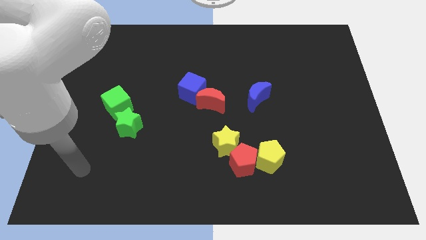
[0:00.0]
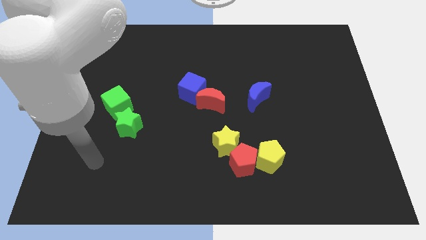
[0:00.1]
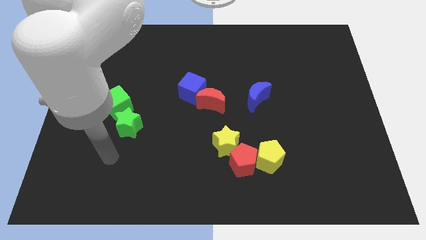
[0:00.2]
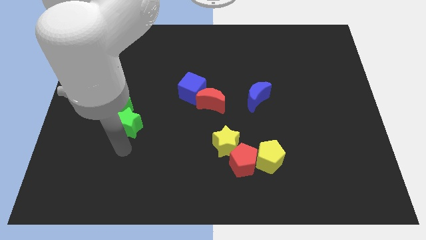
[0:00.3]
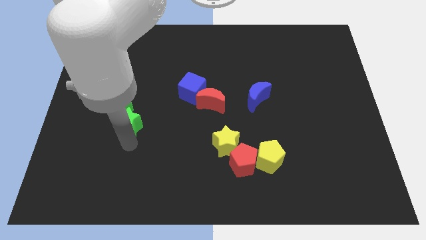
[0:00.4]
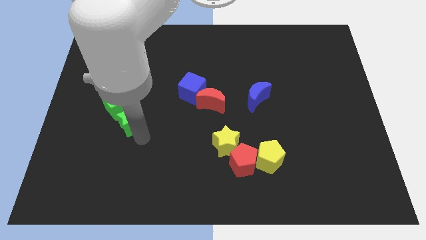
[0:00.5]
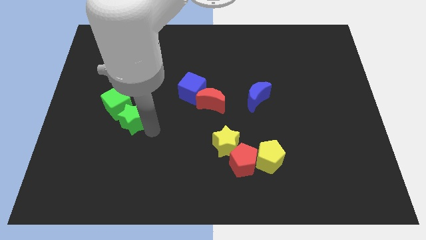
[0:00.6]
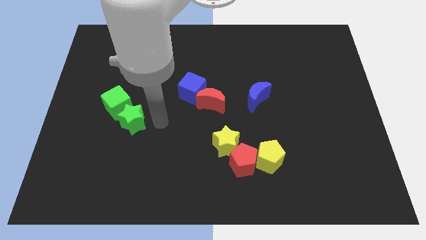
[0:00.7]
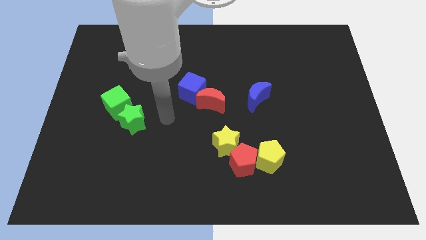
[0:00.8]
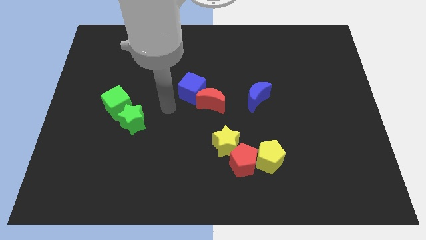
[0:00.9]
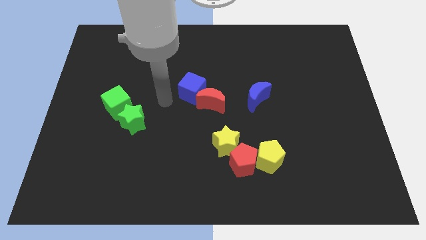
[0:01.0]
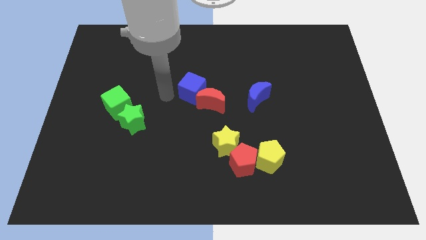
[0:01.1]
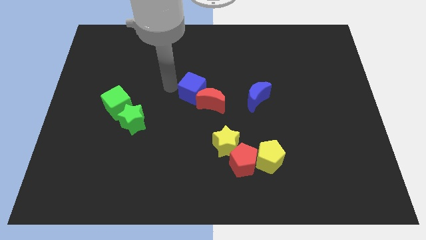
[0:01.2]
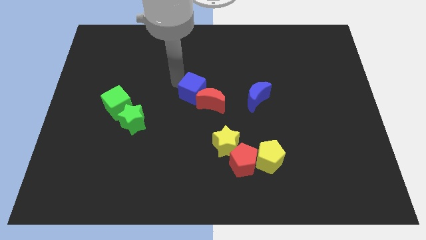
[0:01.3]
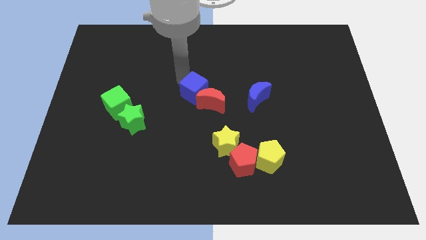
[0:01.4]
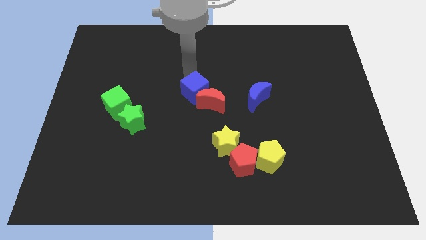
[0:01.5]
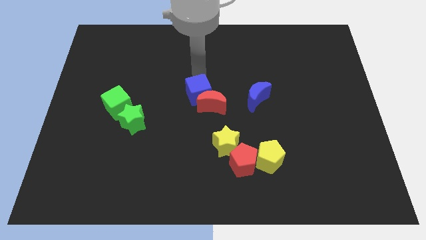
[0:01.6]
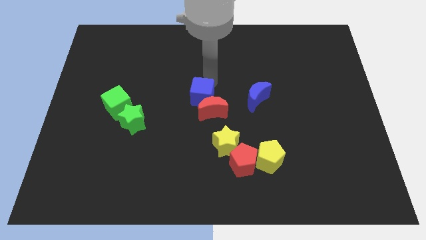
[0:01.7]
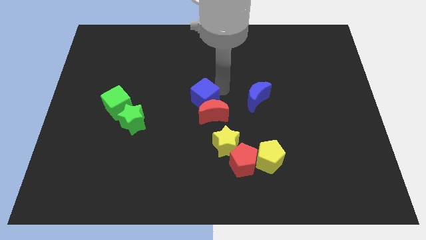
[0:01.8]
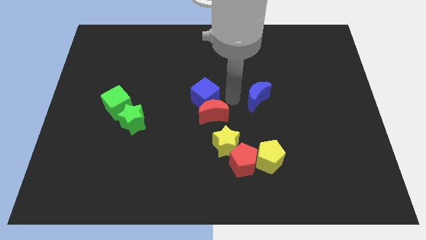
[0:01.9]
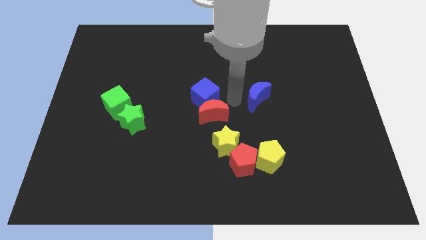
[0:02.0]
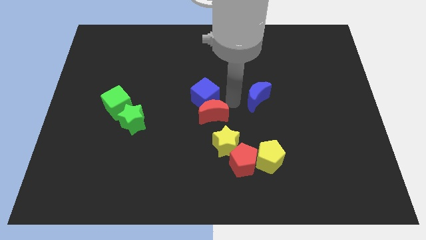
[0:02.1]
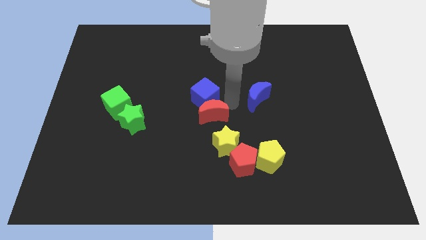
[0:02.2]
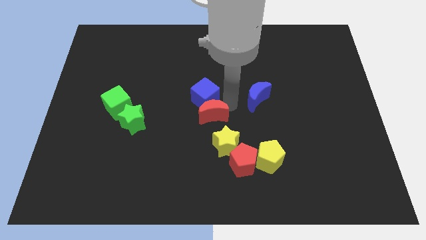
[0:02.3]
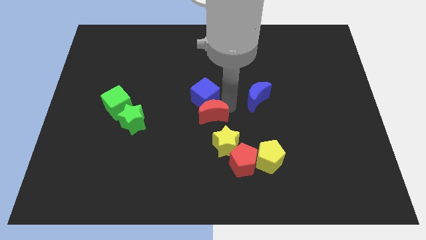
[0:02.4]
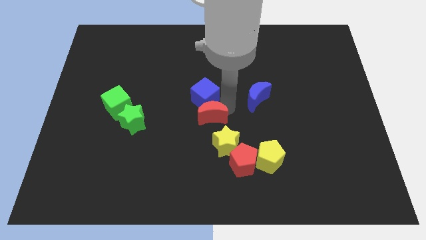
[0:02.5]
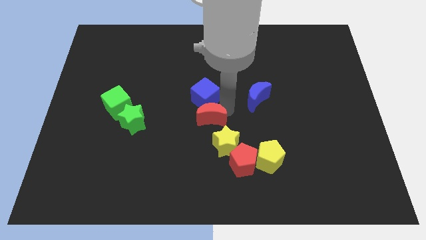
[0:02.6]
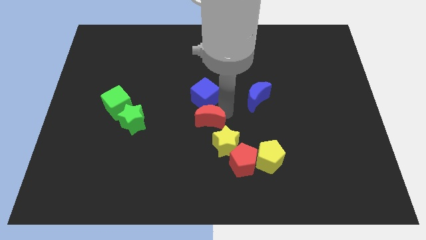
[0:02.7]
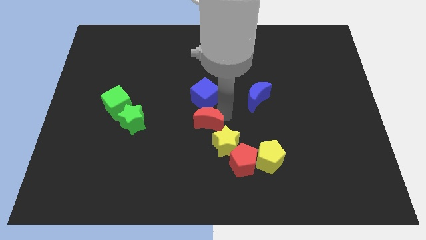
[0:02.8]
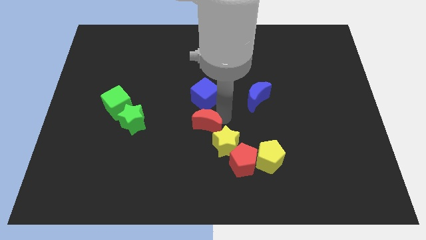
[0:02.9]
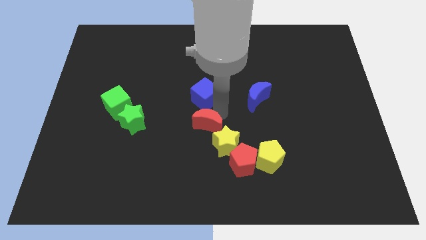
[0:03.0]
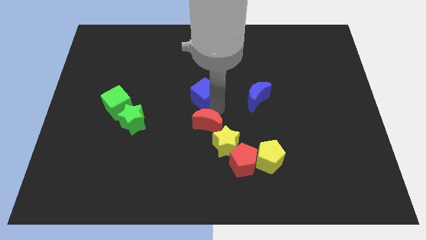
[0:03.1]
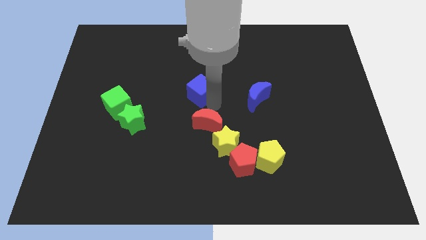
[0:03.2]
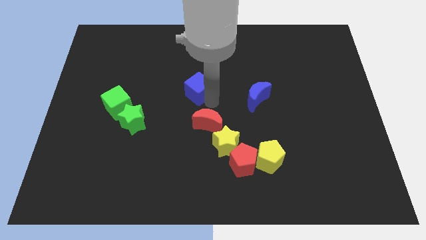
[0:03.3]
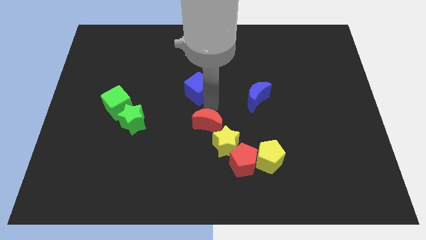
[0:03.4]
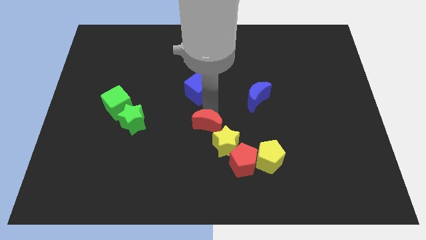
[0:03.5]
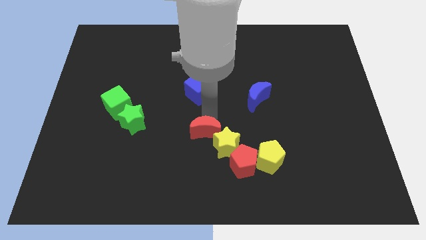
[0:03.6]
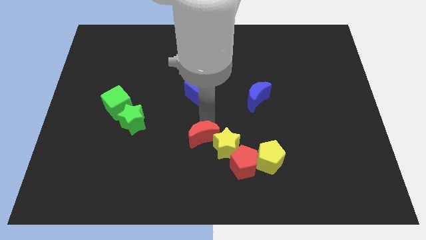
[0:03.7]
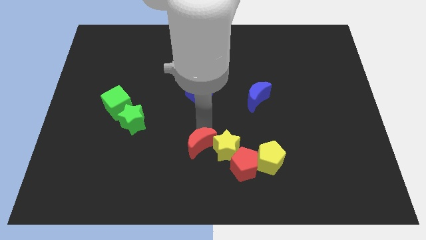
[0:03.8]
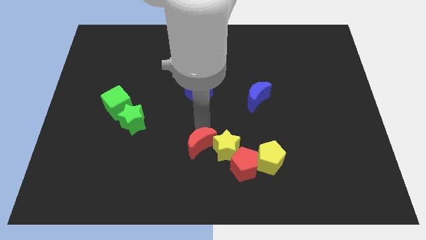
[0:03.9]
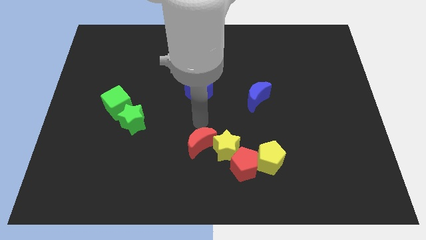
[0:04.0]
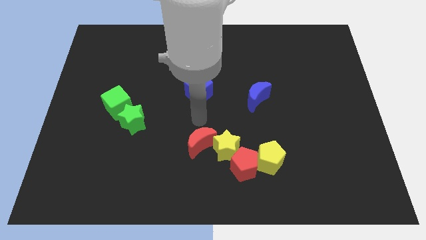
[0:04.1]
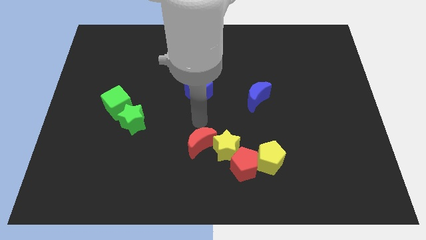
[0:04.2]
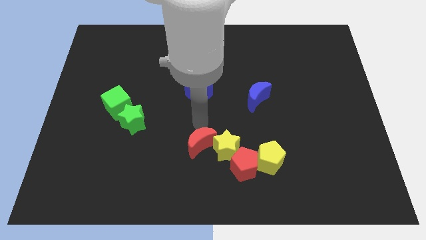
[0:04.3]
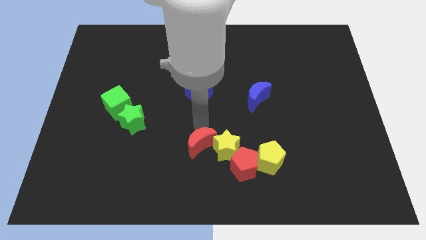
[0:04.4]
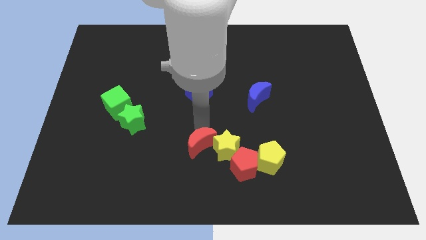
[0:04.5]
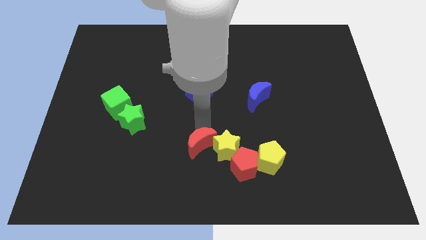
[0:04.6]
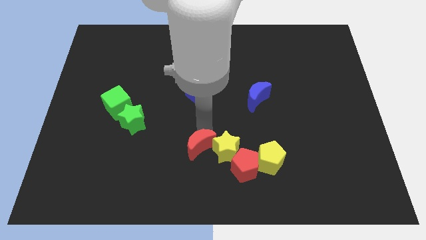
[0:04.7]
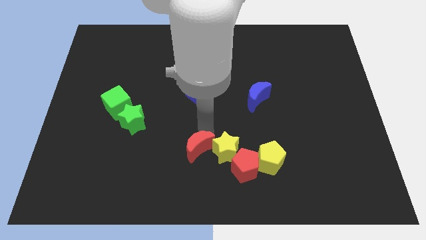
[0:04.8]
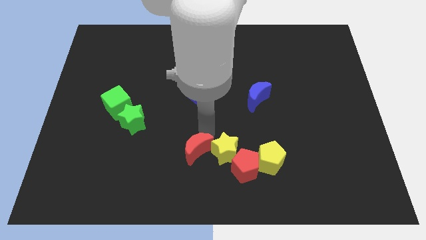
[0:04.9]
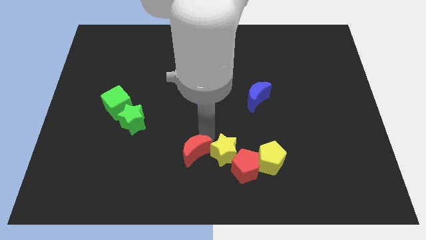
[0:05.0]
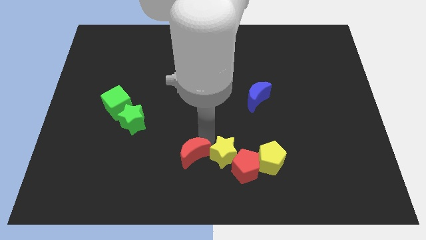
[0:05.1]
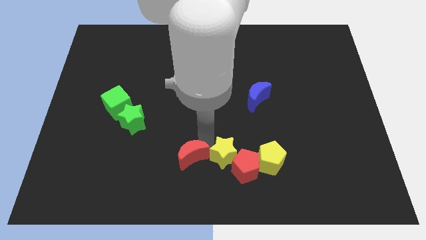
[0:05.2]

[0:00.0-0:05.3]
push the red moon to the bottom side

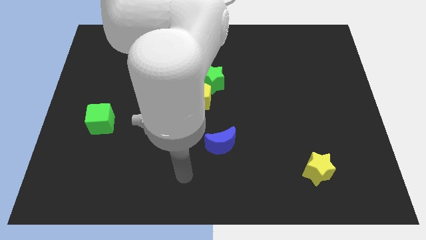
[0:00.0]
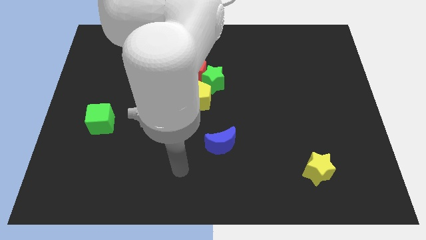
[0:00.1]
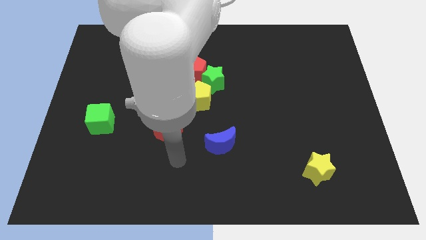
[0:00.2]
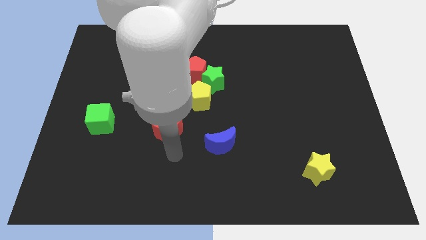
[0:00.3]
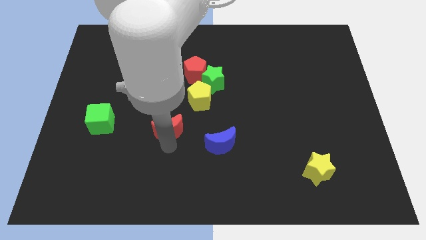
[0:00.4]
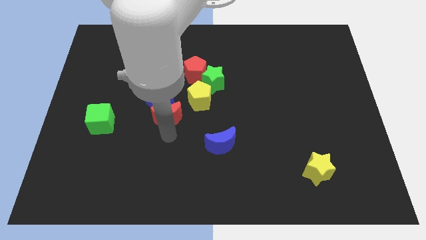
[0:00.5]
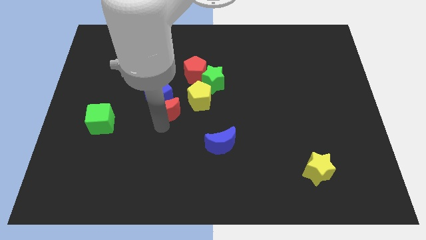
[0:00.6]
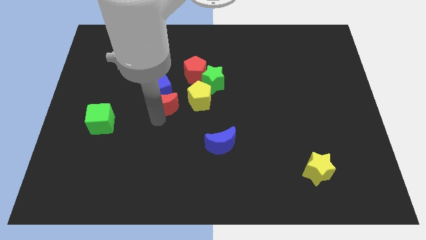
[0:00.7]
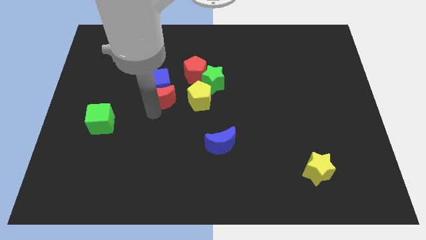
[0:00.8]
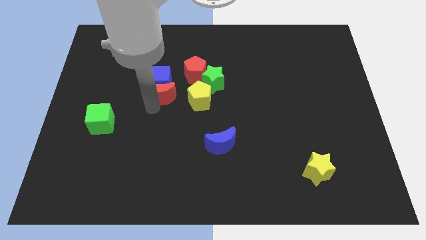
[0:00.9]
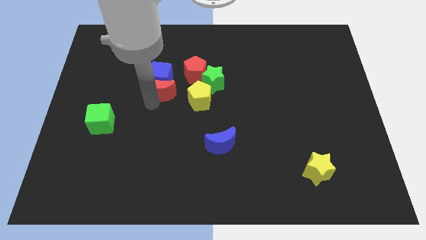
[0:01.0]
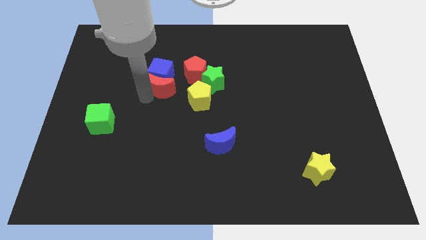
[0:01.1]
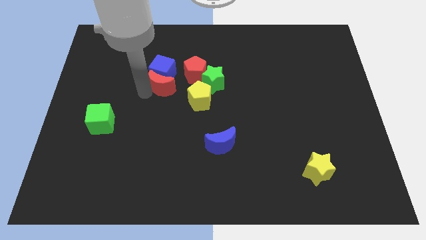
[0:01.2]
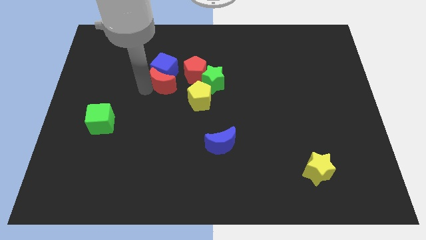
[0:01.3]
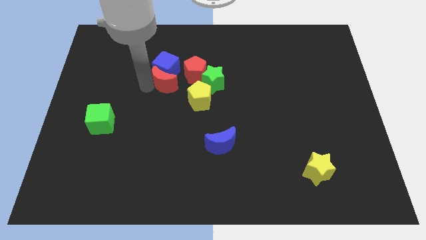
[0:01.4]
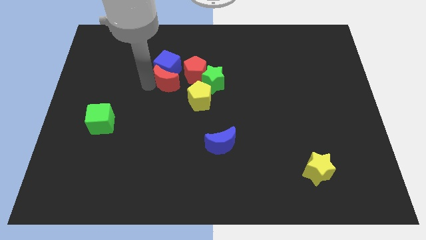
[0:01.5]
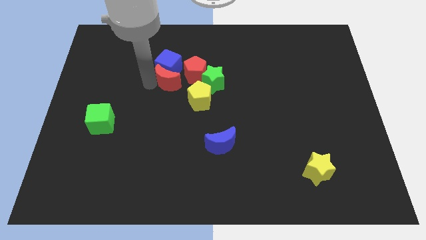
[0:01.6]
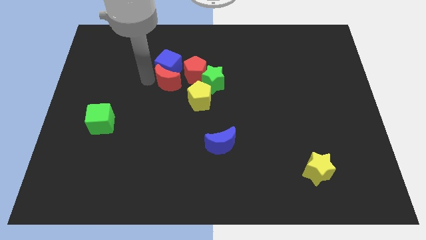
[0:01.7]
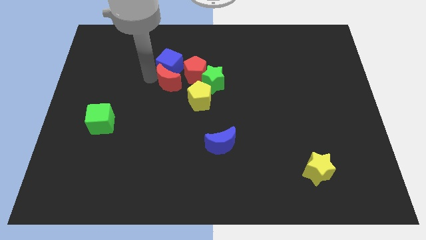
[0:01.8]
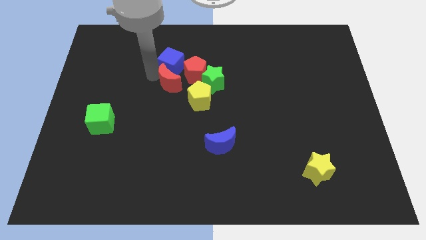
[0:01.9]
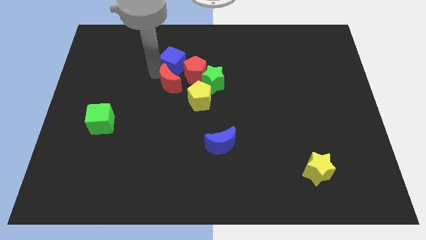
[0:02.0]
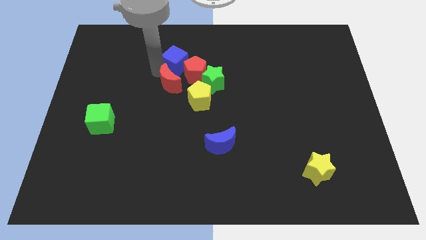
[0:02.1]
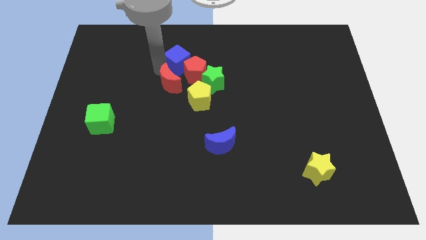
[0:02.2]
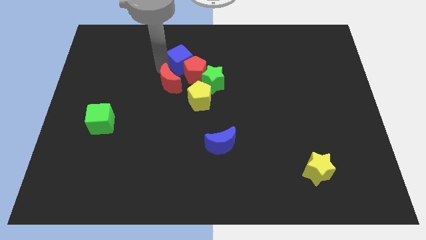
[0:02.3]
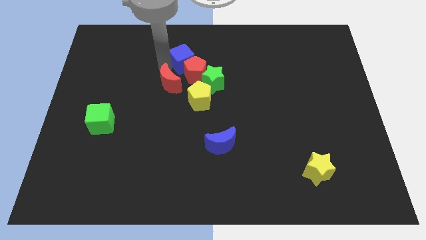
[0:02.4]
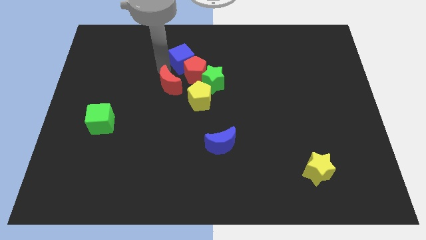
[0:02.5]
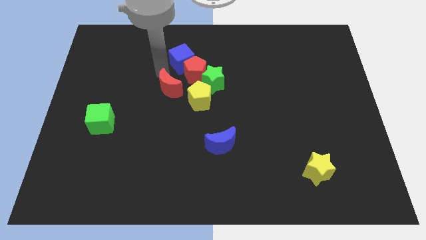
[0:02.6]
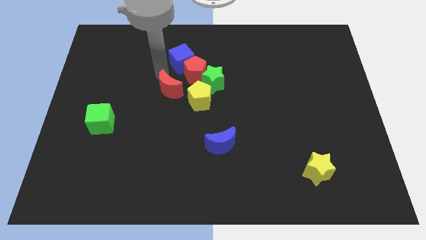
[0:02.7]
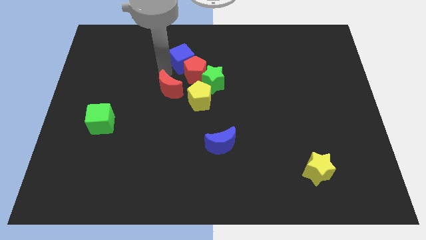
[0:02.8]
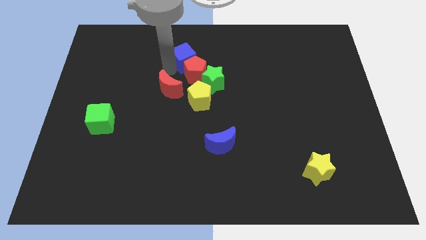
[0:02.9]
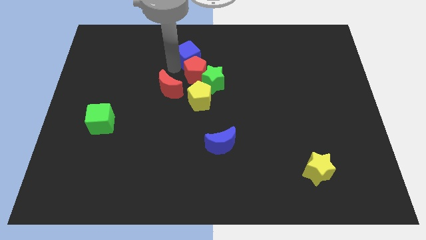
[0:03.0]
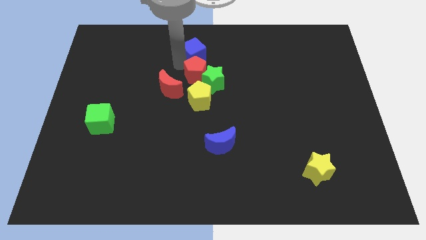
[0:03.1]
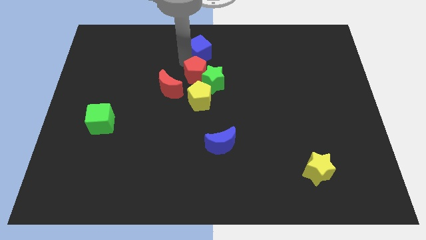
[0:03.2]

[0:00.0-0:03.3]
push the blue cube to the towards your base
